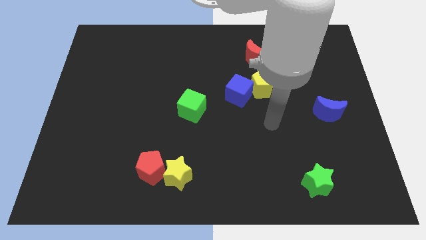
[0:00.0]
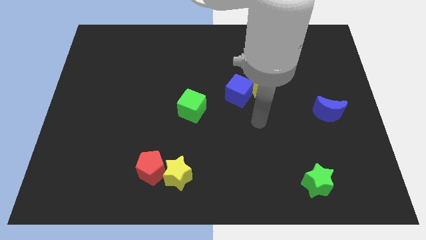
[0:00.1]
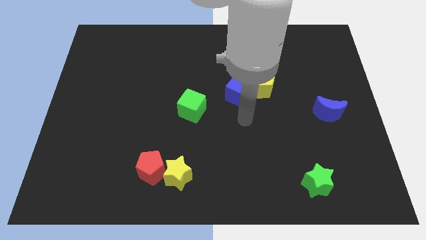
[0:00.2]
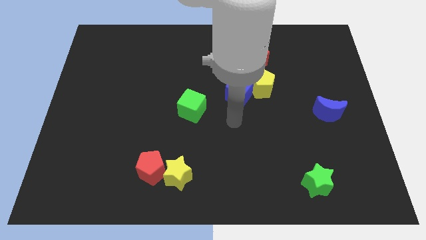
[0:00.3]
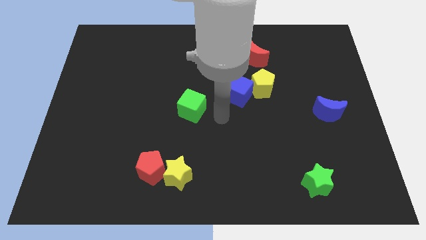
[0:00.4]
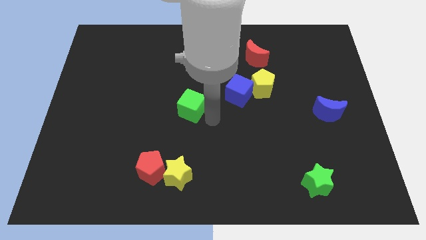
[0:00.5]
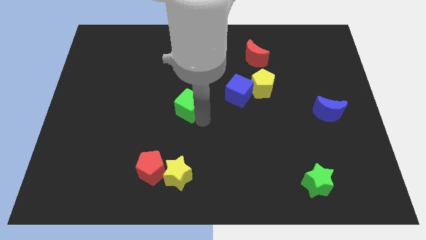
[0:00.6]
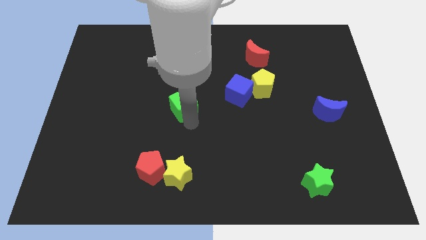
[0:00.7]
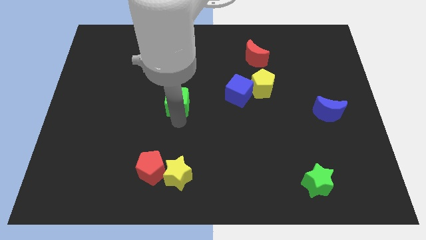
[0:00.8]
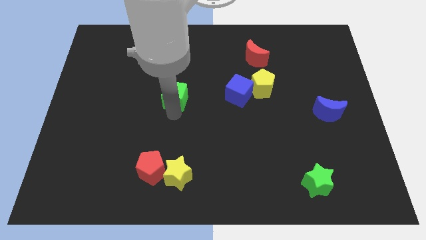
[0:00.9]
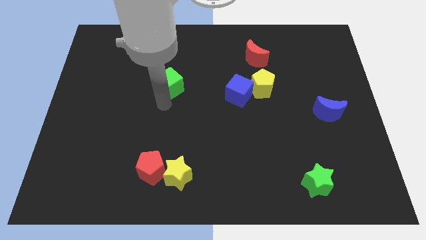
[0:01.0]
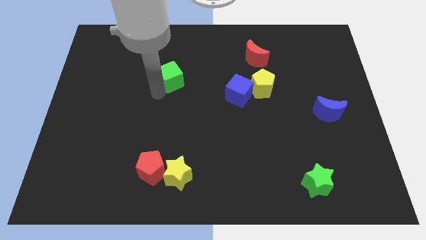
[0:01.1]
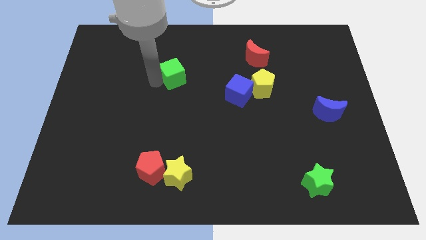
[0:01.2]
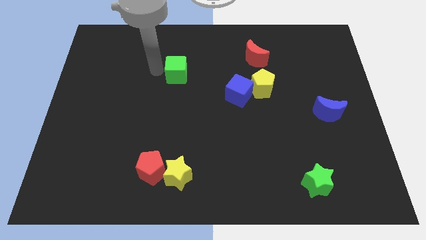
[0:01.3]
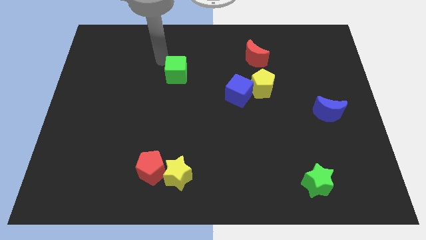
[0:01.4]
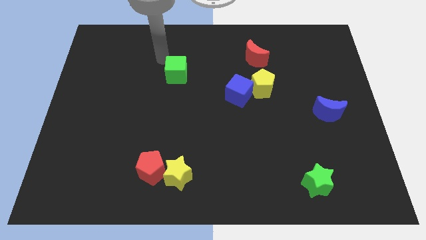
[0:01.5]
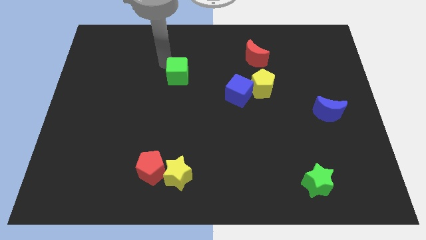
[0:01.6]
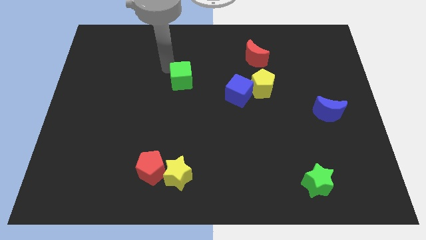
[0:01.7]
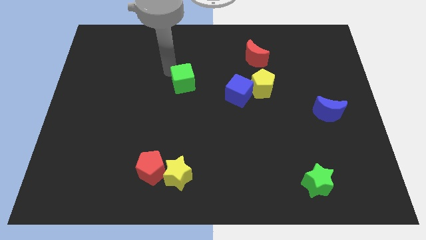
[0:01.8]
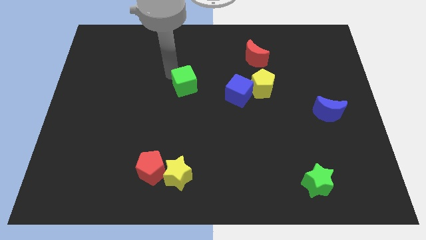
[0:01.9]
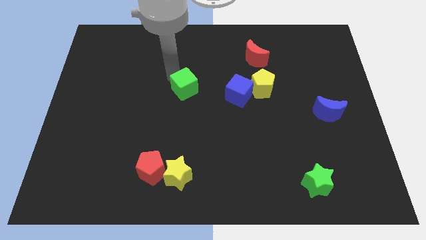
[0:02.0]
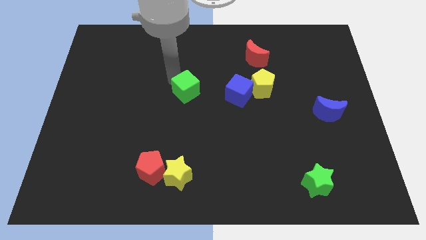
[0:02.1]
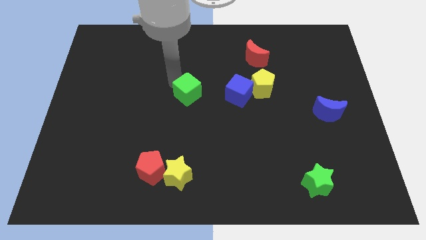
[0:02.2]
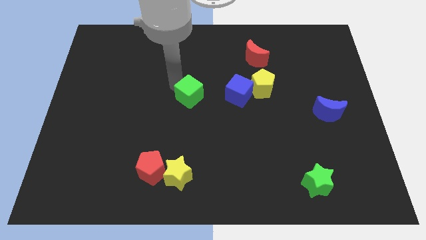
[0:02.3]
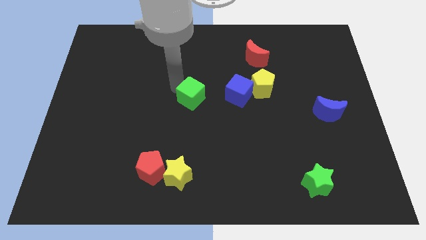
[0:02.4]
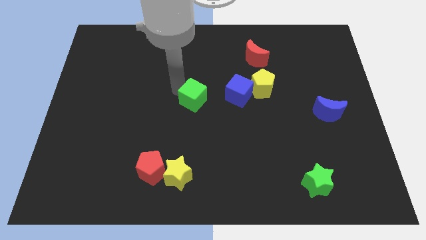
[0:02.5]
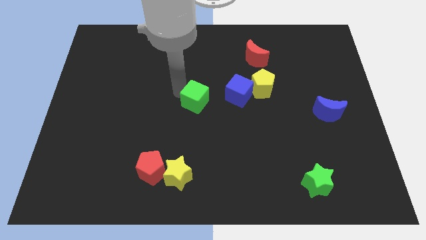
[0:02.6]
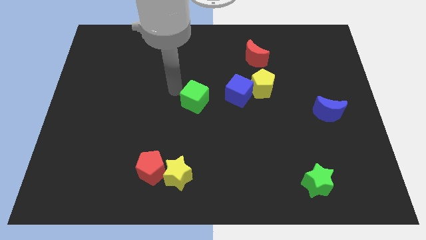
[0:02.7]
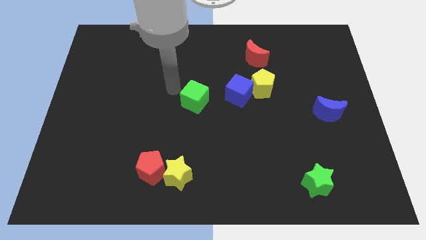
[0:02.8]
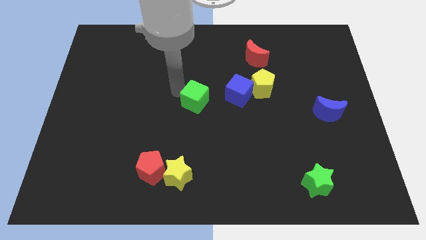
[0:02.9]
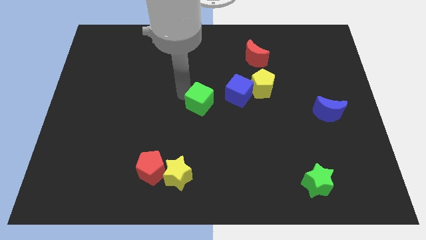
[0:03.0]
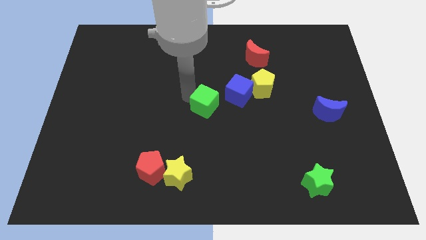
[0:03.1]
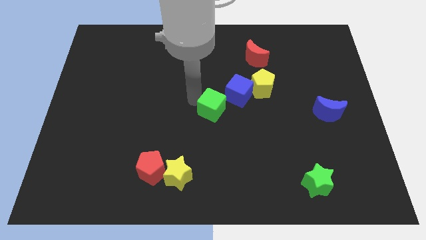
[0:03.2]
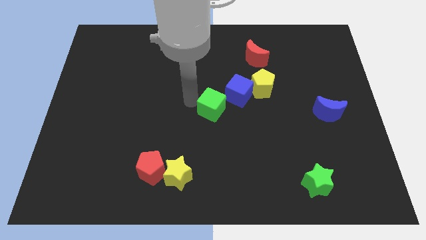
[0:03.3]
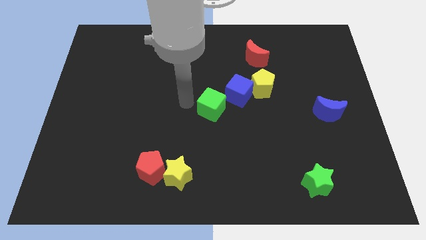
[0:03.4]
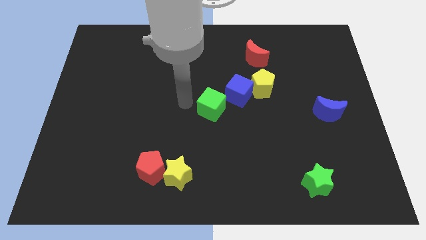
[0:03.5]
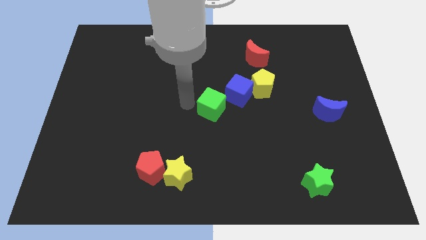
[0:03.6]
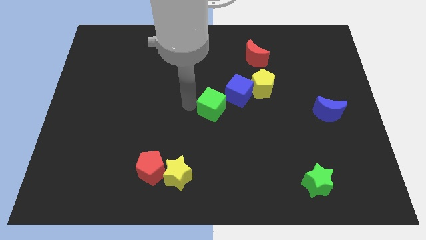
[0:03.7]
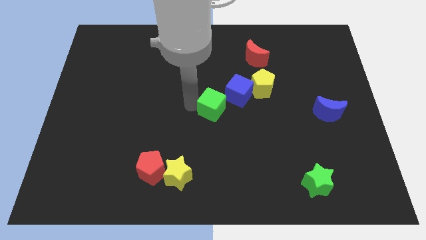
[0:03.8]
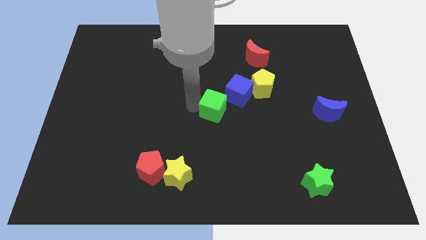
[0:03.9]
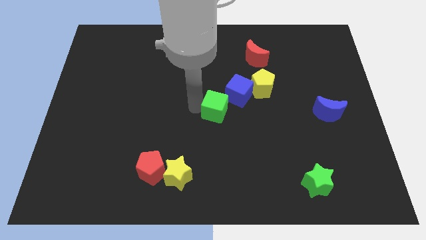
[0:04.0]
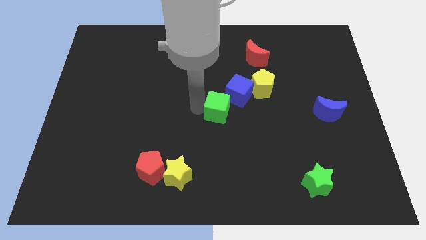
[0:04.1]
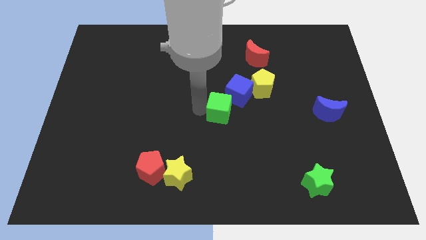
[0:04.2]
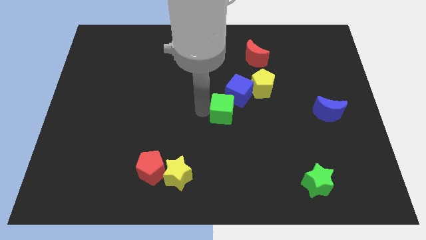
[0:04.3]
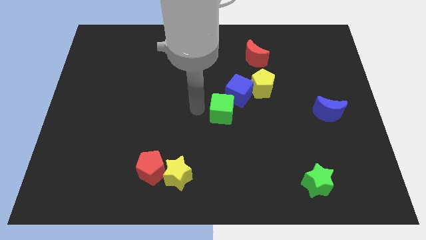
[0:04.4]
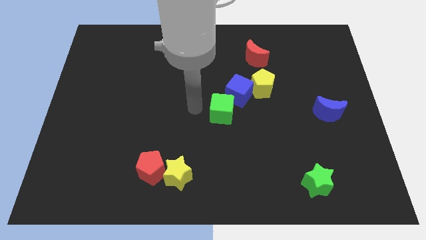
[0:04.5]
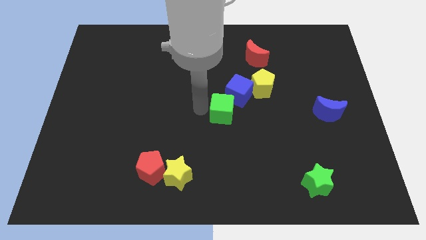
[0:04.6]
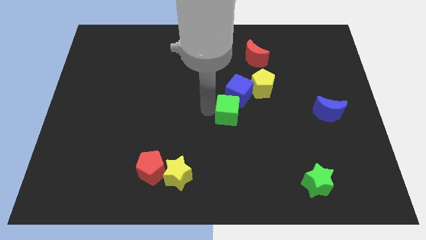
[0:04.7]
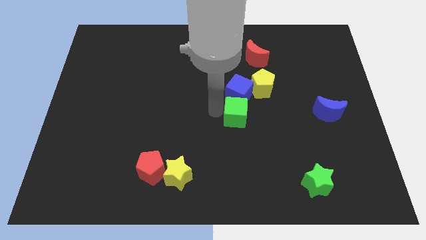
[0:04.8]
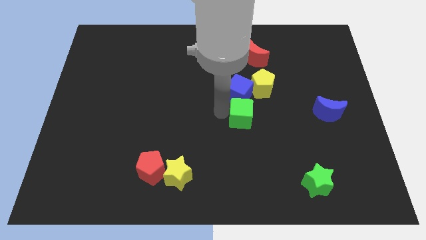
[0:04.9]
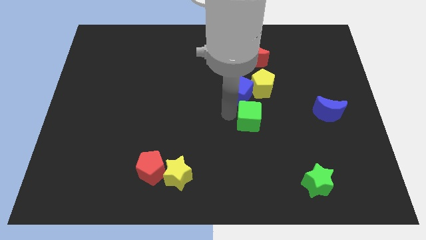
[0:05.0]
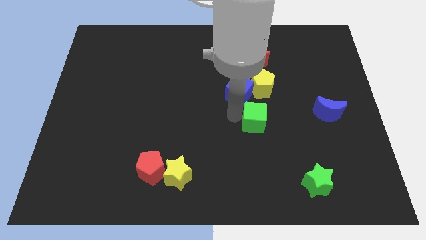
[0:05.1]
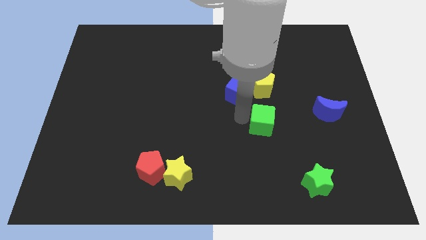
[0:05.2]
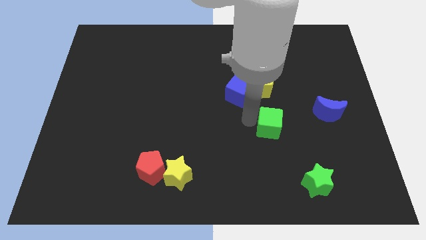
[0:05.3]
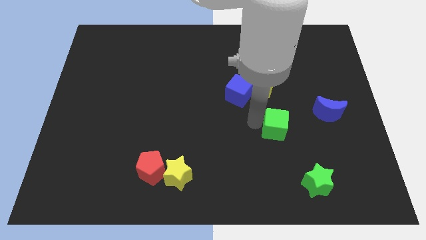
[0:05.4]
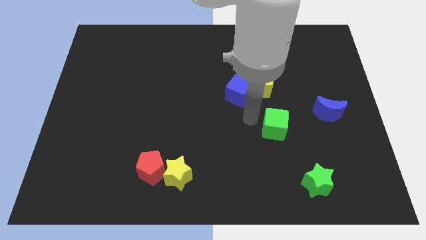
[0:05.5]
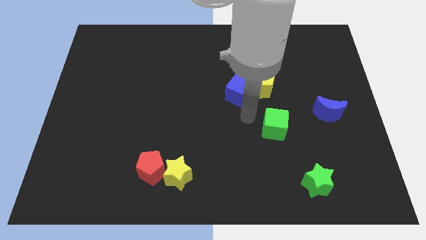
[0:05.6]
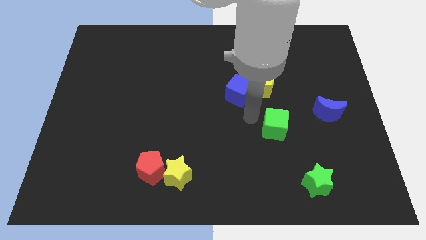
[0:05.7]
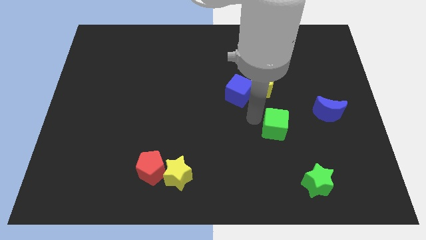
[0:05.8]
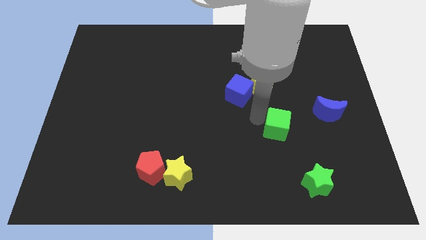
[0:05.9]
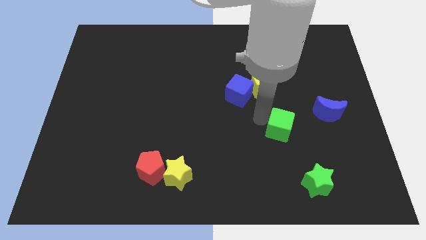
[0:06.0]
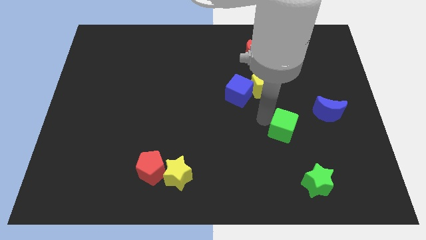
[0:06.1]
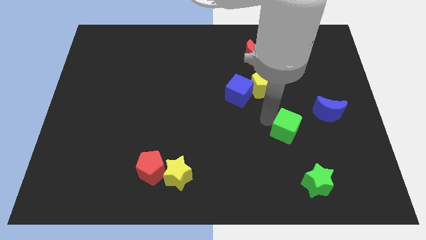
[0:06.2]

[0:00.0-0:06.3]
move the green cube above the green star

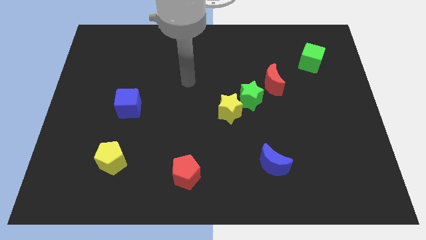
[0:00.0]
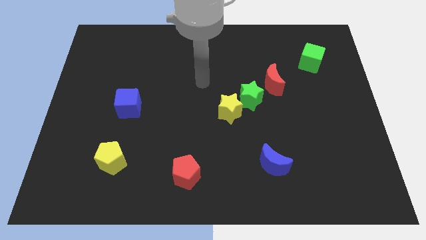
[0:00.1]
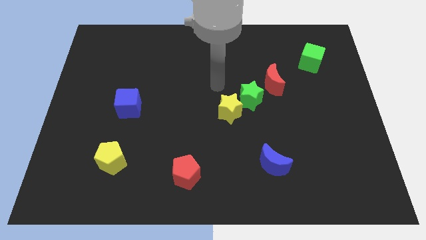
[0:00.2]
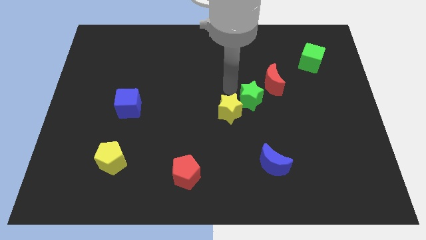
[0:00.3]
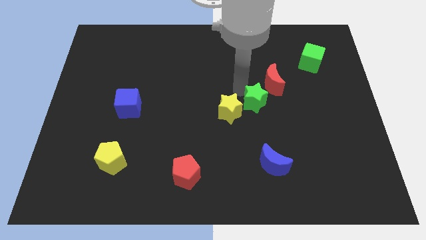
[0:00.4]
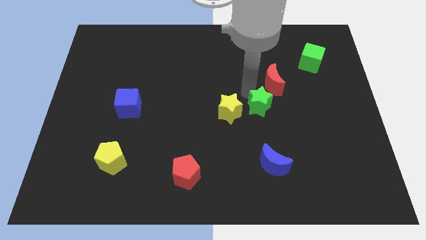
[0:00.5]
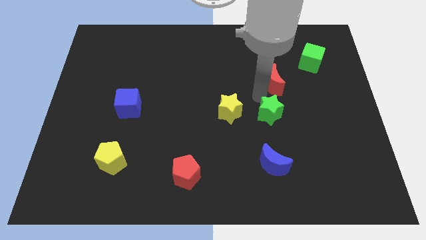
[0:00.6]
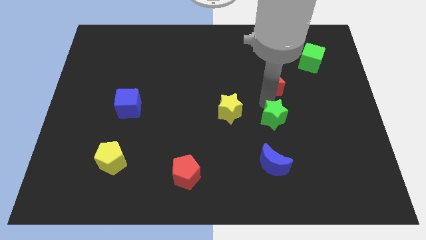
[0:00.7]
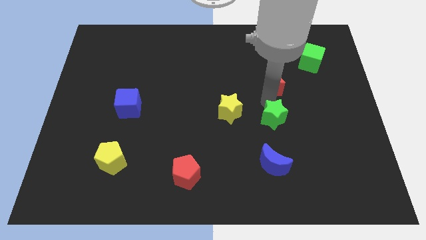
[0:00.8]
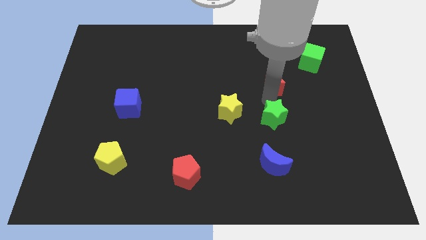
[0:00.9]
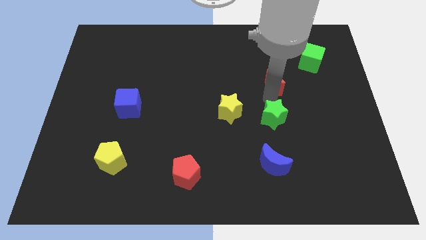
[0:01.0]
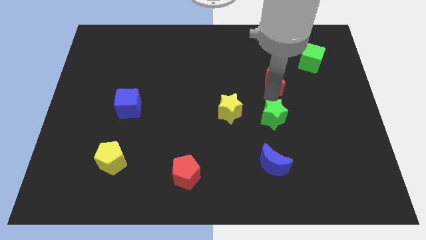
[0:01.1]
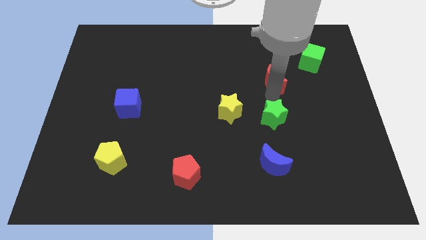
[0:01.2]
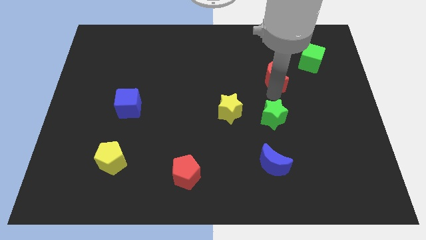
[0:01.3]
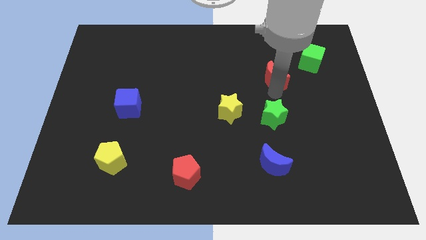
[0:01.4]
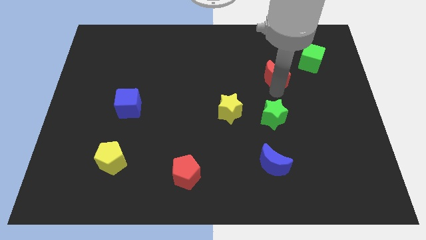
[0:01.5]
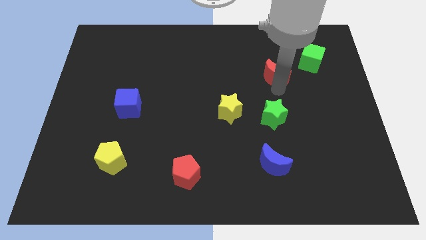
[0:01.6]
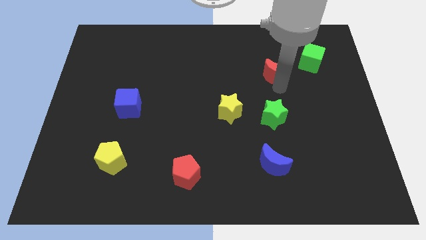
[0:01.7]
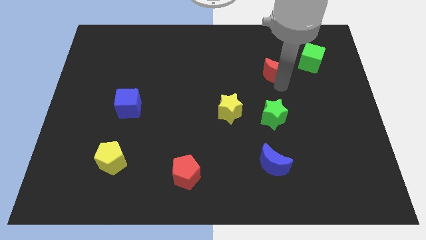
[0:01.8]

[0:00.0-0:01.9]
put the red moon to the left of the green cube
